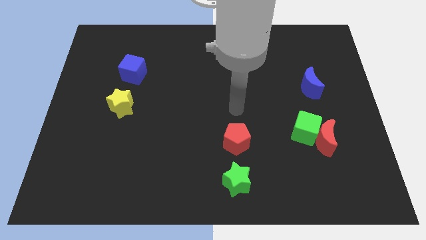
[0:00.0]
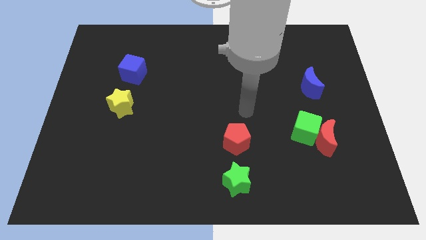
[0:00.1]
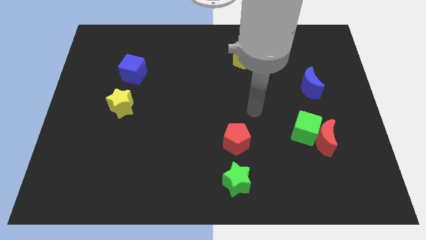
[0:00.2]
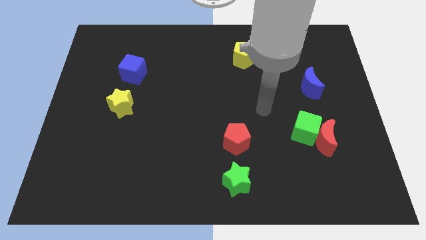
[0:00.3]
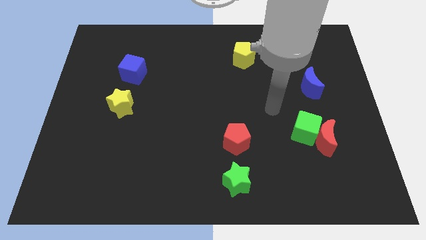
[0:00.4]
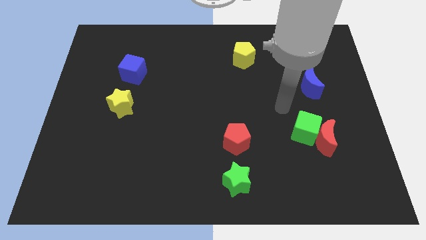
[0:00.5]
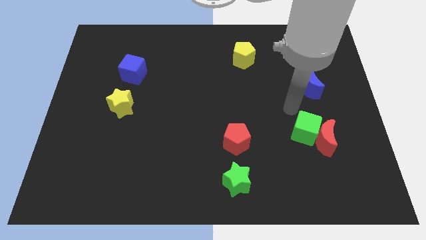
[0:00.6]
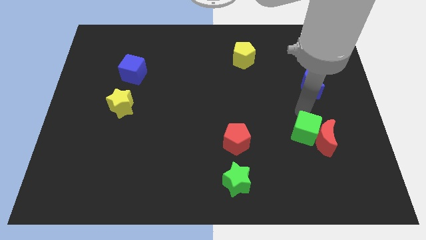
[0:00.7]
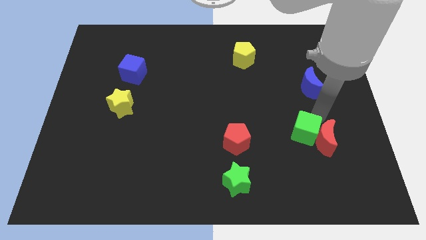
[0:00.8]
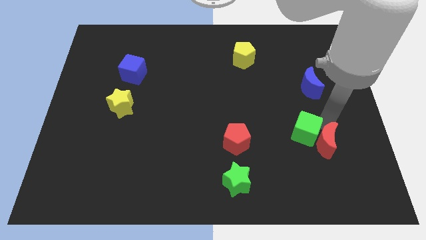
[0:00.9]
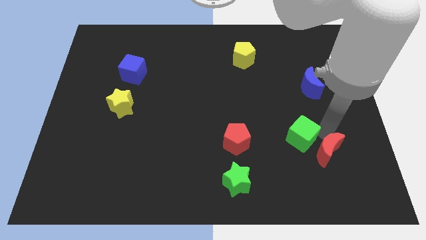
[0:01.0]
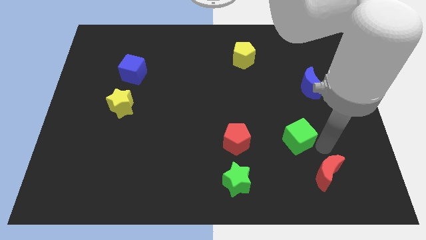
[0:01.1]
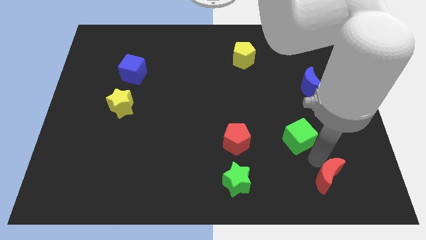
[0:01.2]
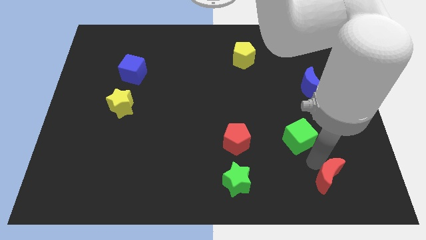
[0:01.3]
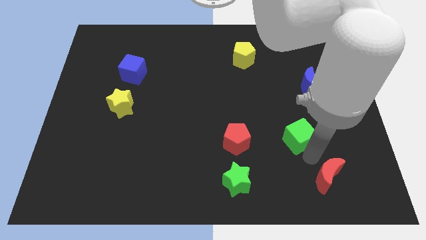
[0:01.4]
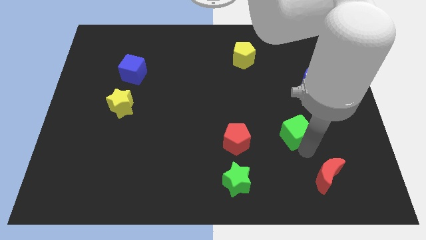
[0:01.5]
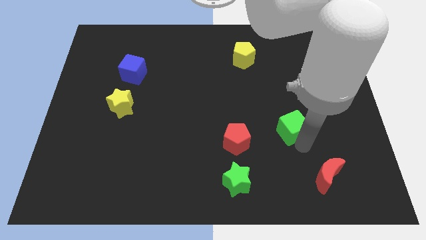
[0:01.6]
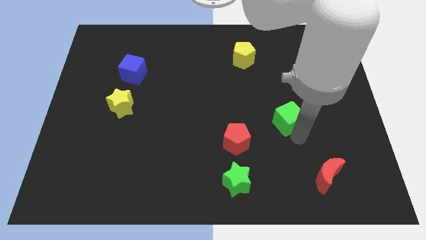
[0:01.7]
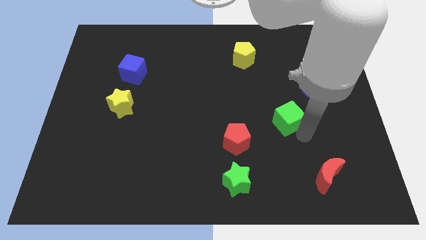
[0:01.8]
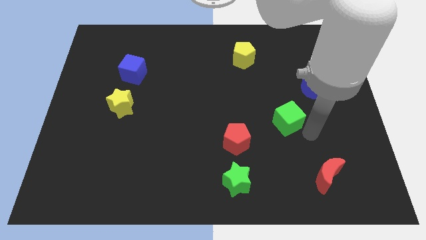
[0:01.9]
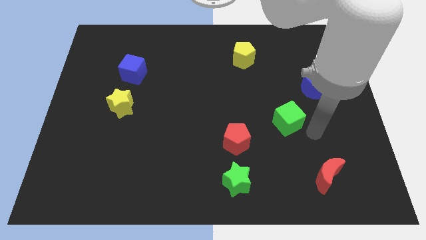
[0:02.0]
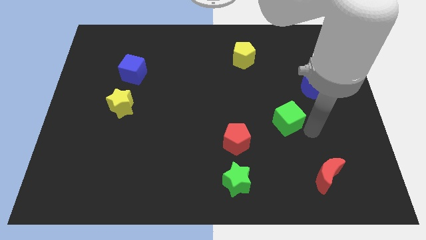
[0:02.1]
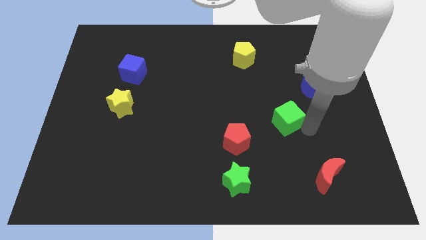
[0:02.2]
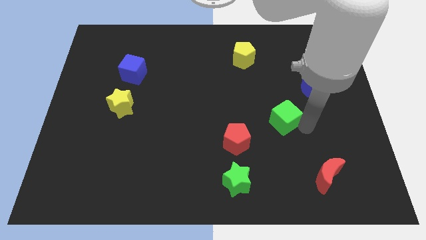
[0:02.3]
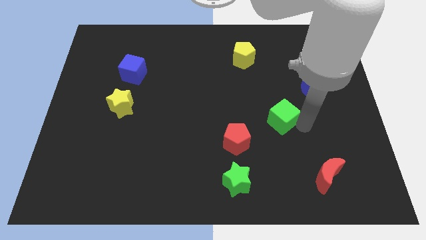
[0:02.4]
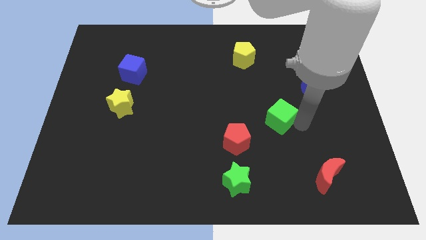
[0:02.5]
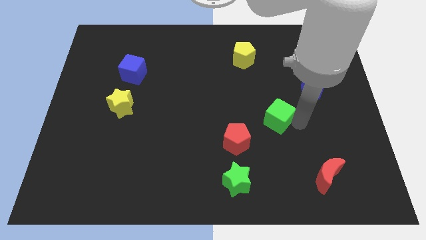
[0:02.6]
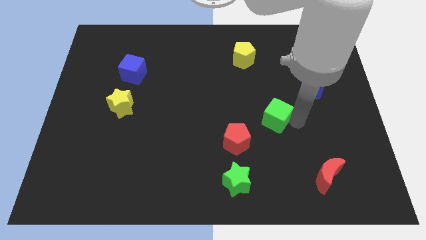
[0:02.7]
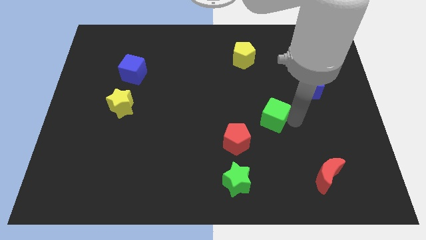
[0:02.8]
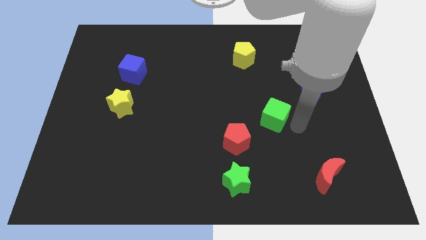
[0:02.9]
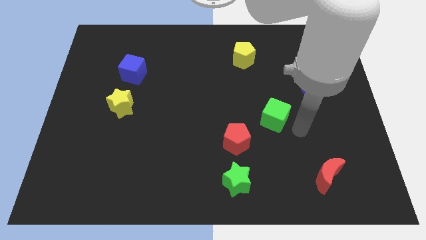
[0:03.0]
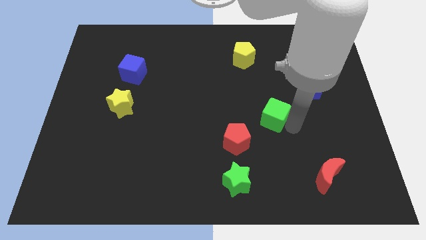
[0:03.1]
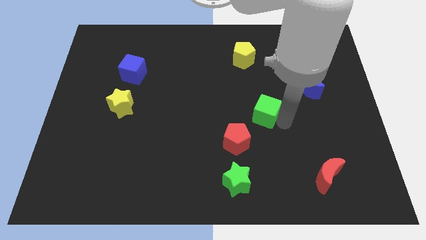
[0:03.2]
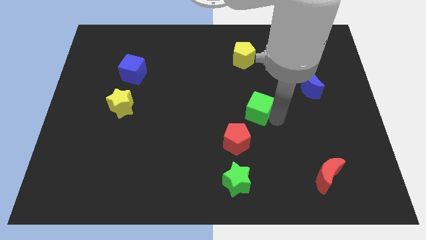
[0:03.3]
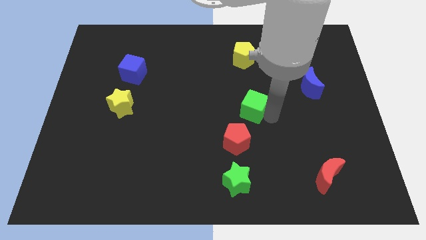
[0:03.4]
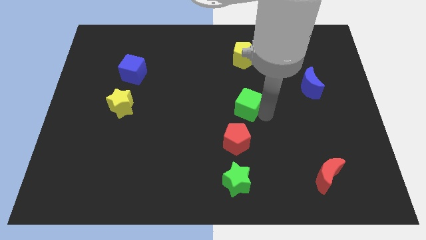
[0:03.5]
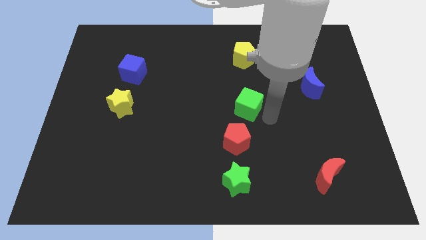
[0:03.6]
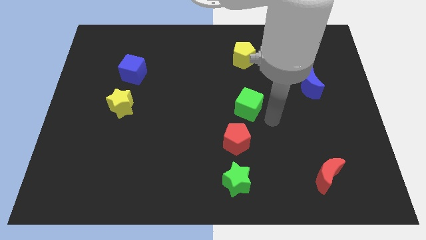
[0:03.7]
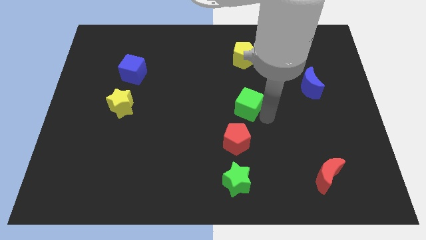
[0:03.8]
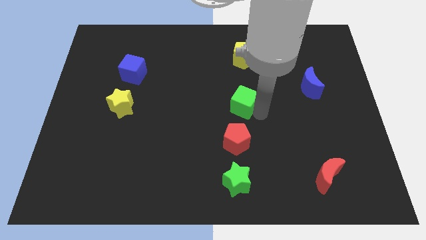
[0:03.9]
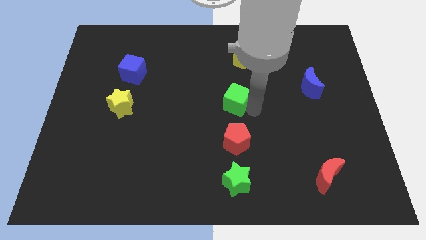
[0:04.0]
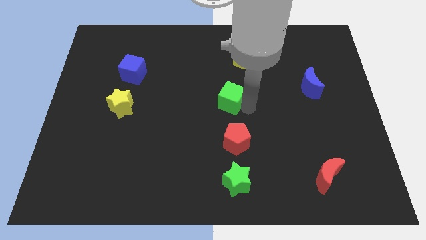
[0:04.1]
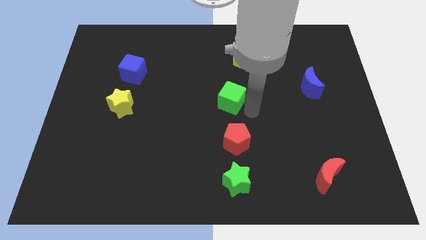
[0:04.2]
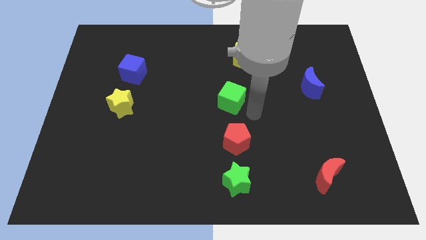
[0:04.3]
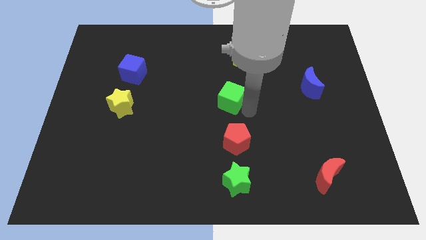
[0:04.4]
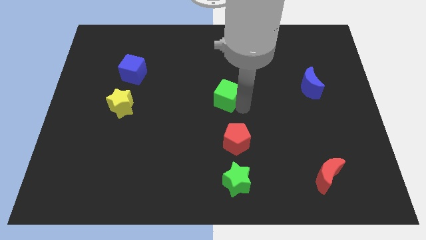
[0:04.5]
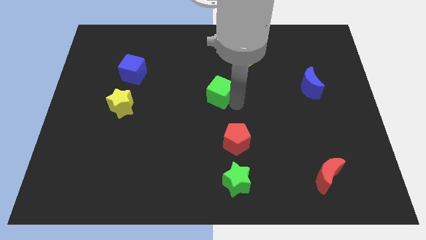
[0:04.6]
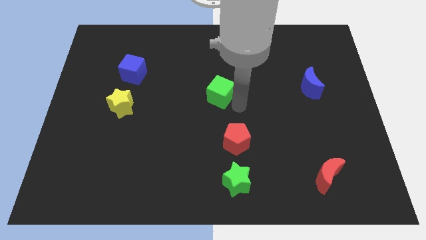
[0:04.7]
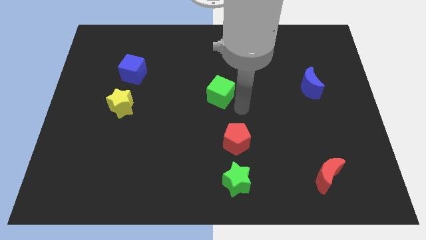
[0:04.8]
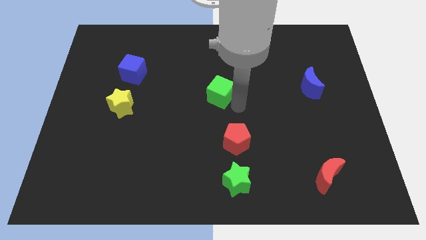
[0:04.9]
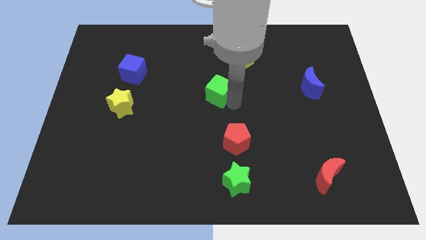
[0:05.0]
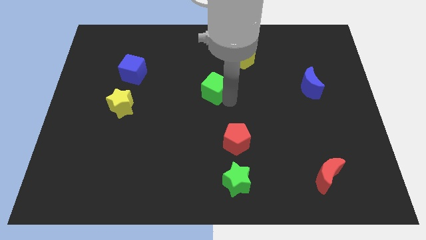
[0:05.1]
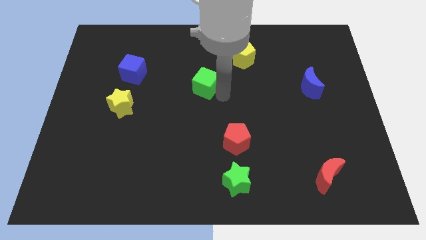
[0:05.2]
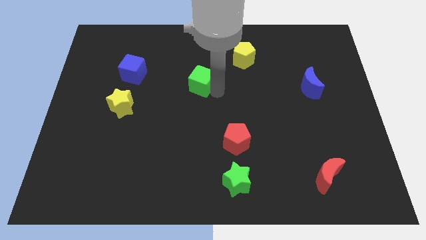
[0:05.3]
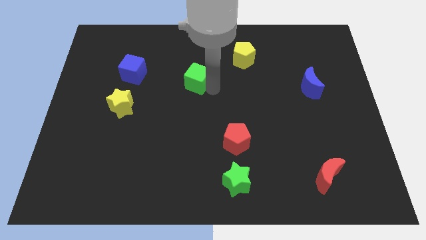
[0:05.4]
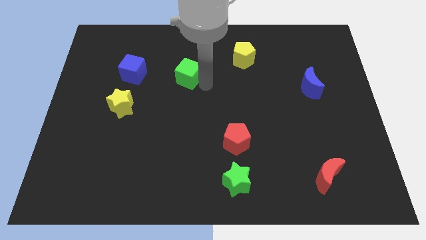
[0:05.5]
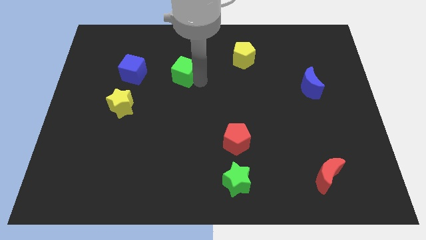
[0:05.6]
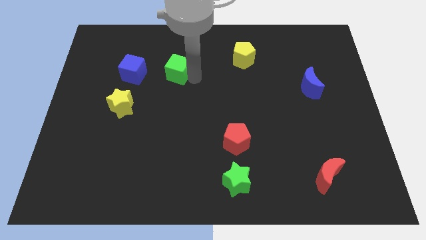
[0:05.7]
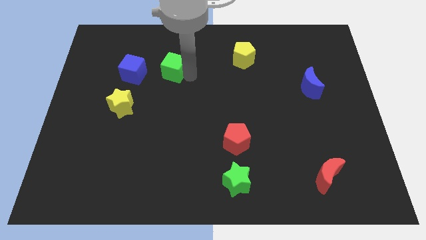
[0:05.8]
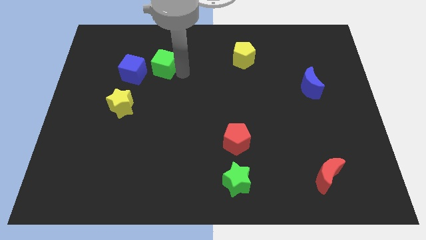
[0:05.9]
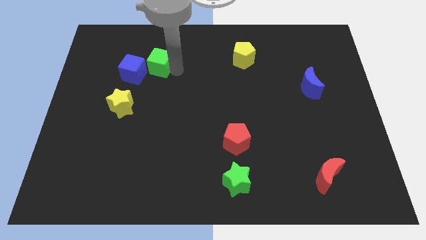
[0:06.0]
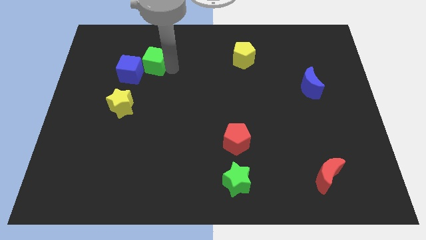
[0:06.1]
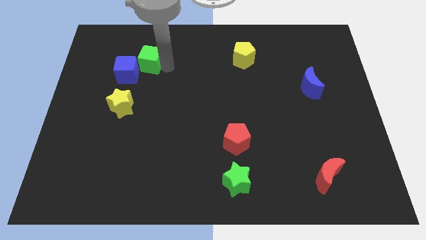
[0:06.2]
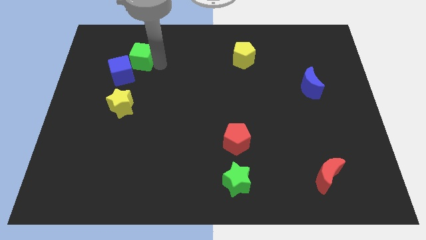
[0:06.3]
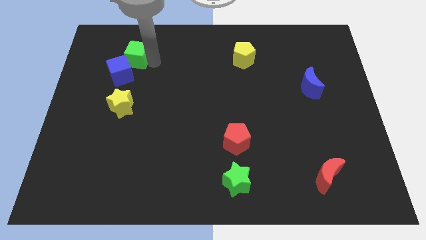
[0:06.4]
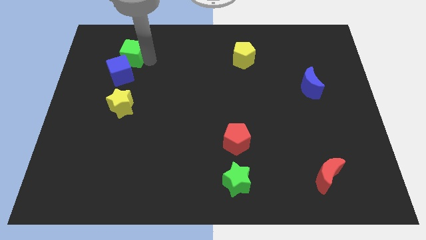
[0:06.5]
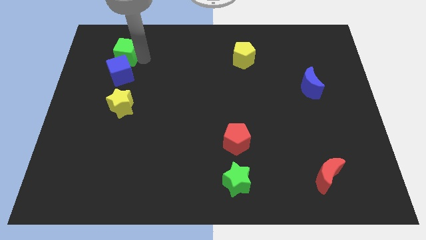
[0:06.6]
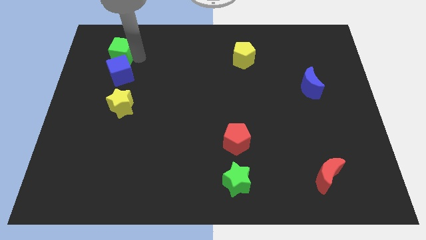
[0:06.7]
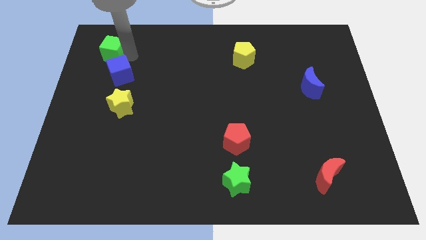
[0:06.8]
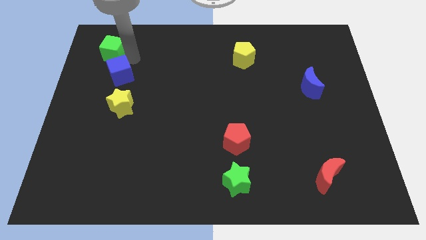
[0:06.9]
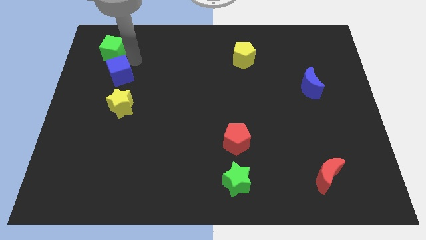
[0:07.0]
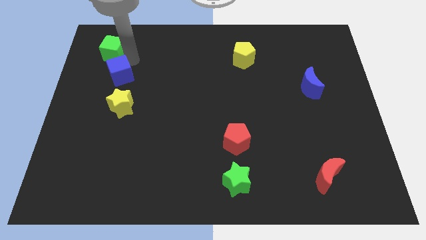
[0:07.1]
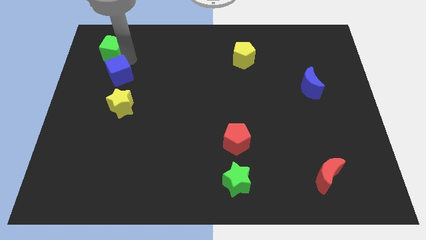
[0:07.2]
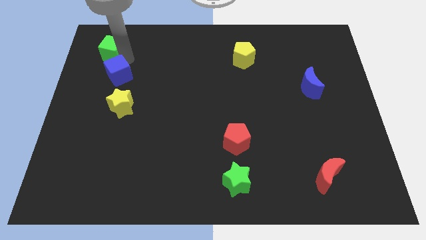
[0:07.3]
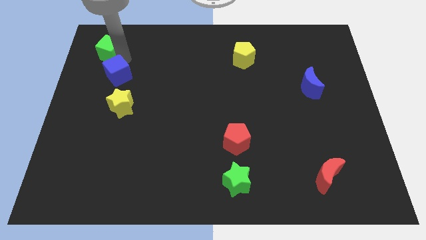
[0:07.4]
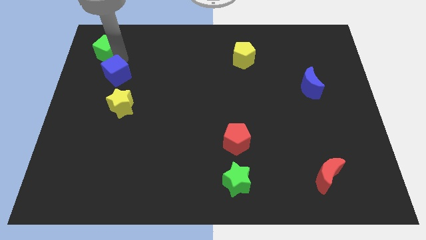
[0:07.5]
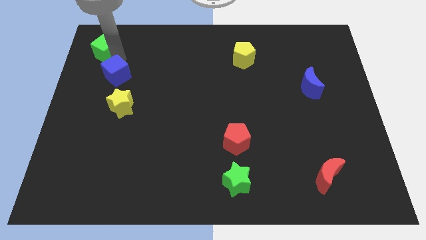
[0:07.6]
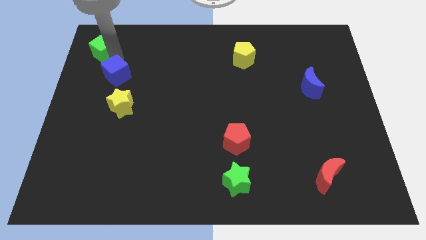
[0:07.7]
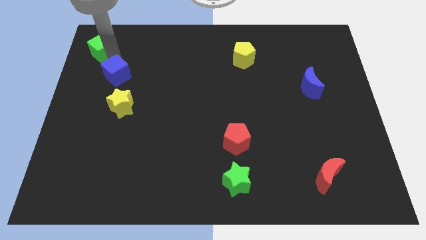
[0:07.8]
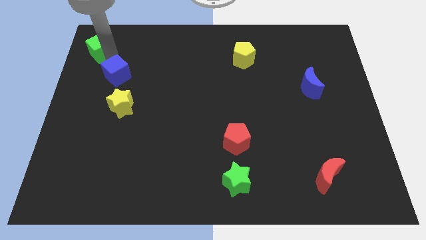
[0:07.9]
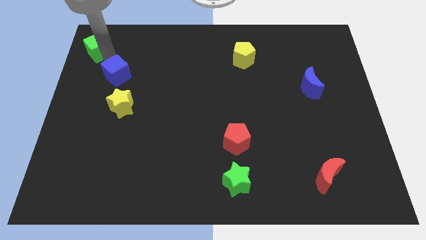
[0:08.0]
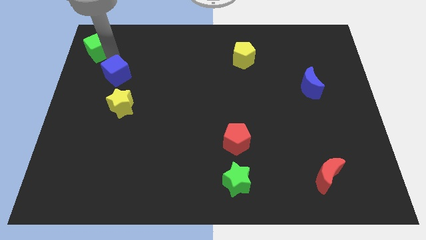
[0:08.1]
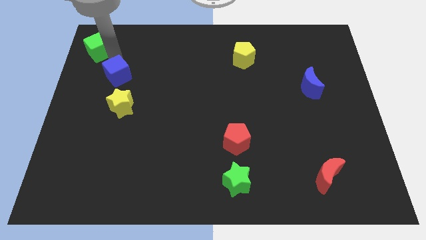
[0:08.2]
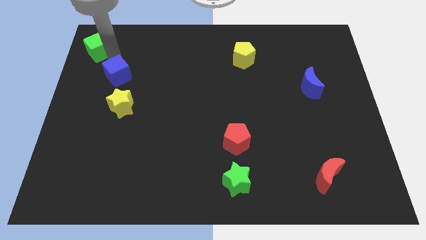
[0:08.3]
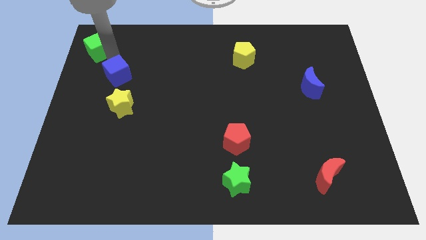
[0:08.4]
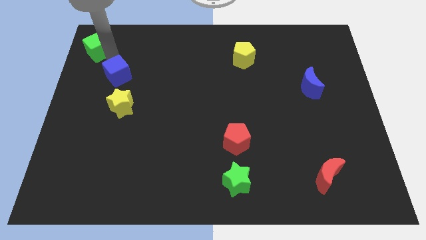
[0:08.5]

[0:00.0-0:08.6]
slide the green cube to the top left corner
